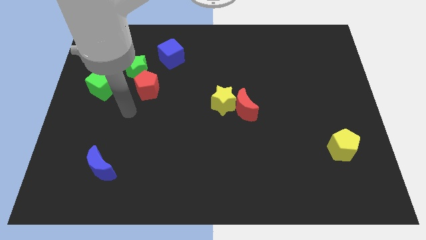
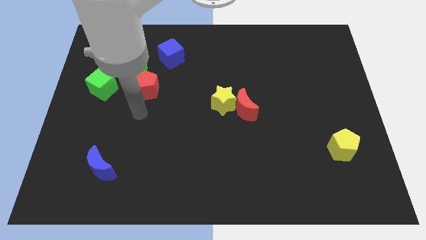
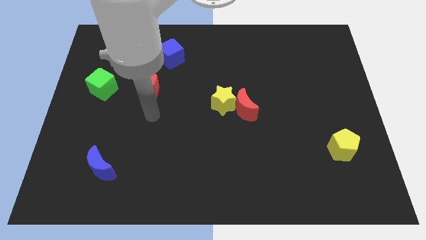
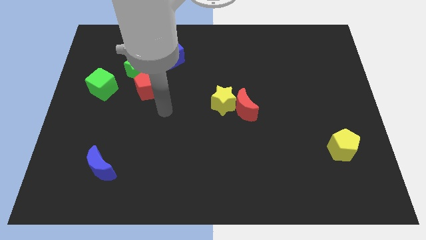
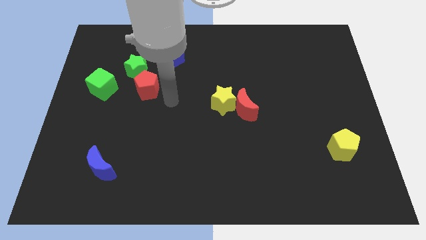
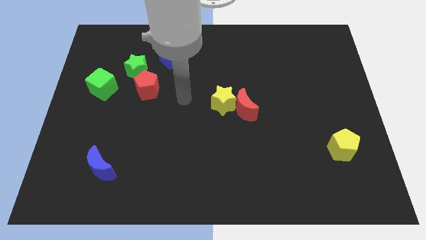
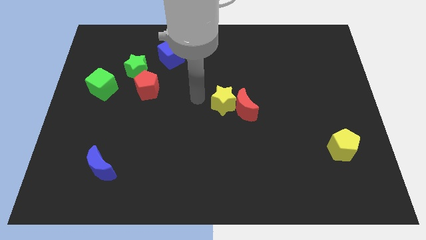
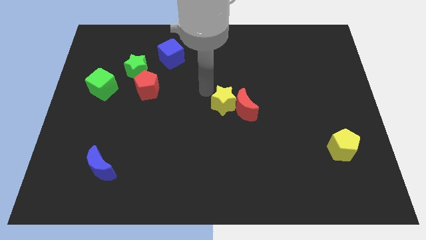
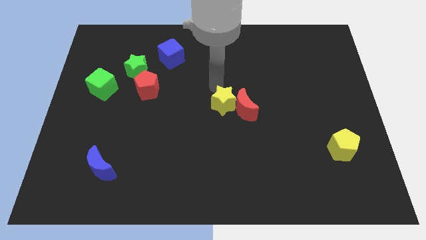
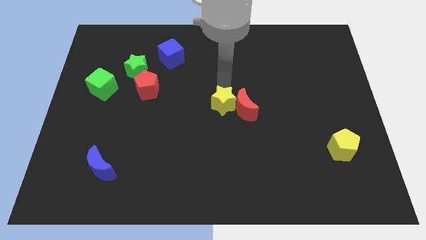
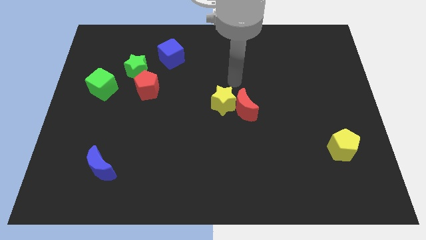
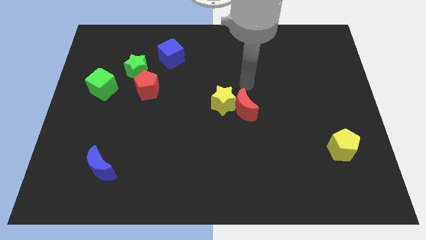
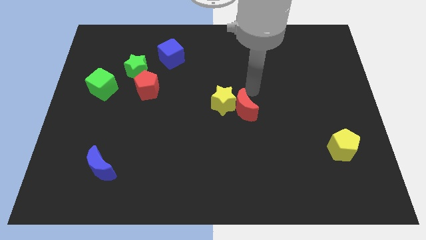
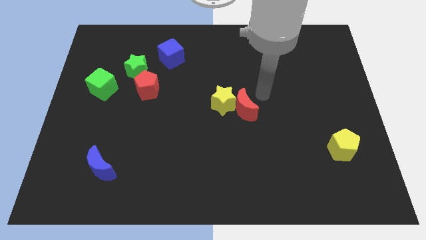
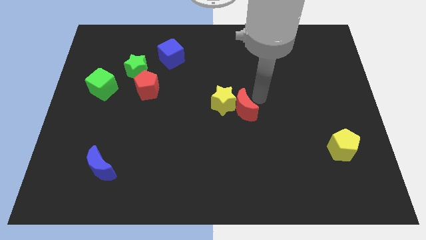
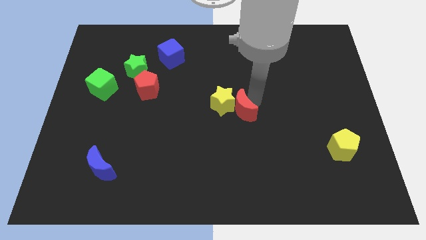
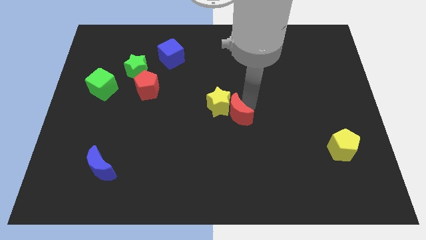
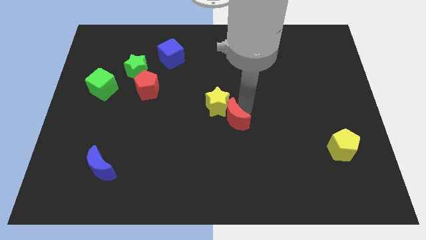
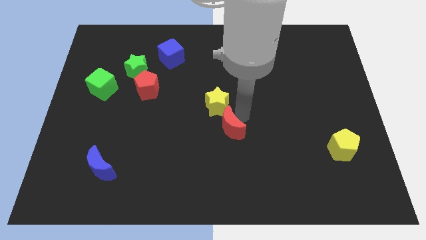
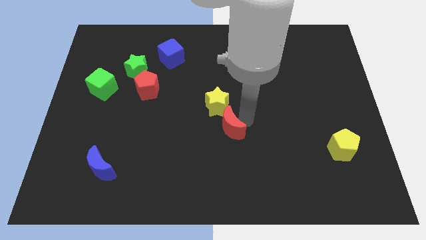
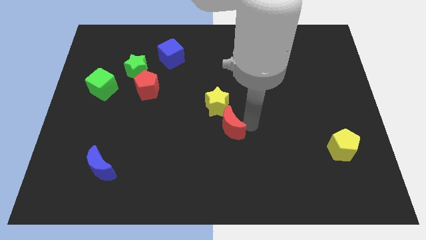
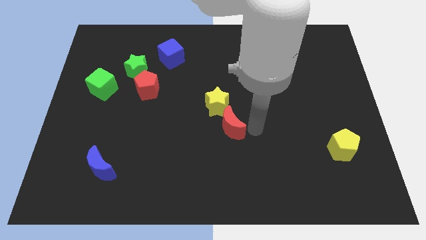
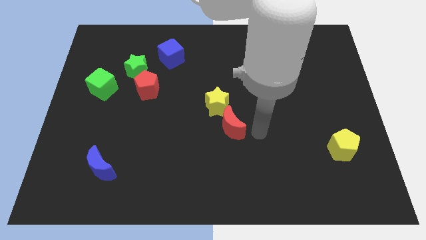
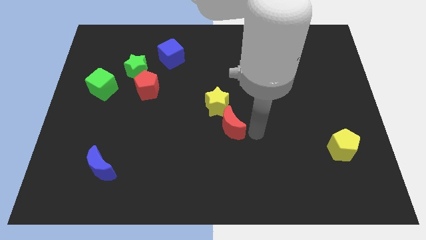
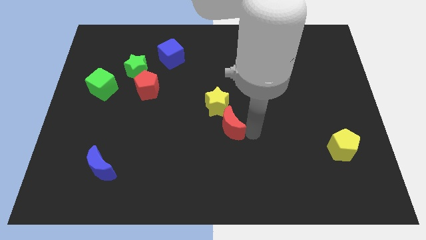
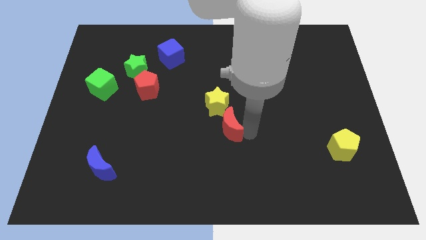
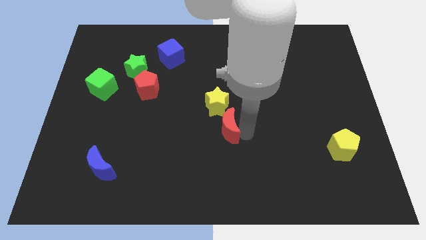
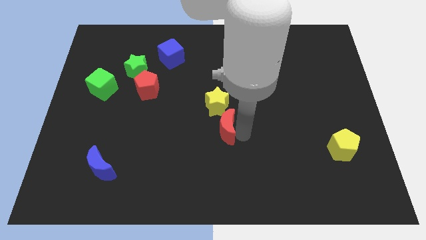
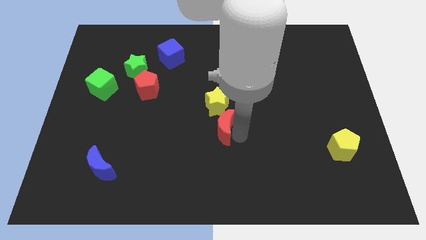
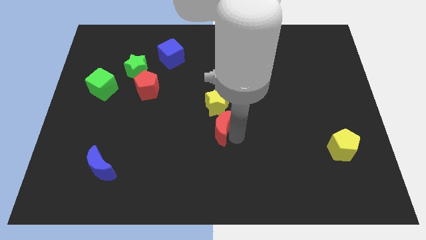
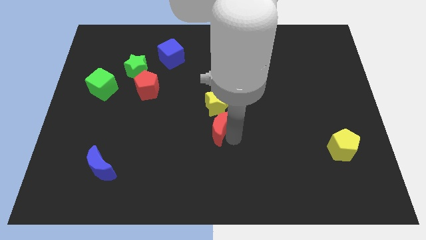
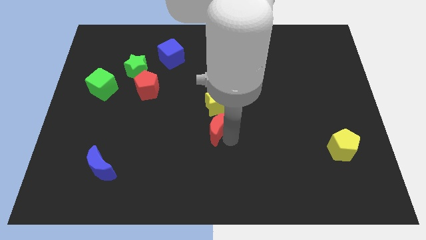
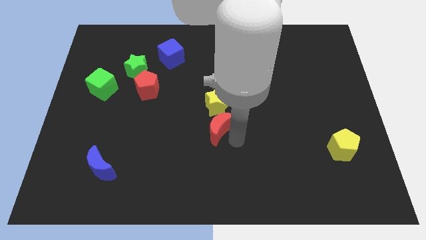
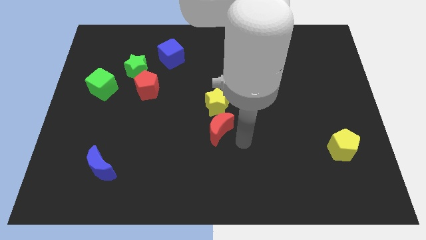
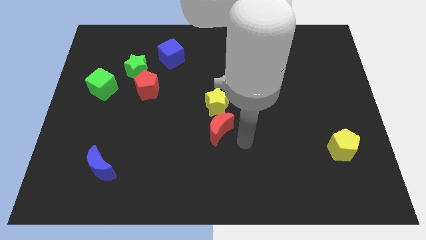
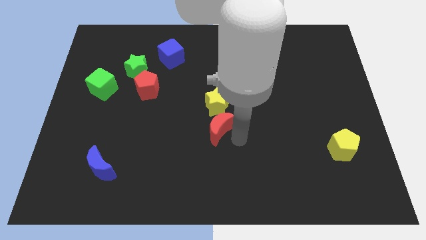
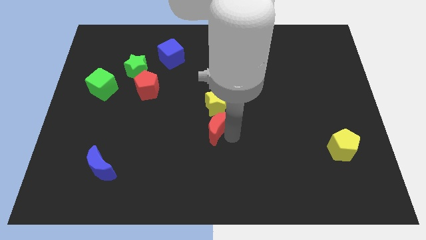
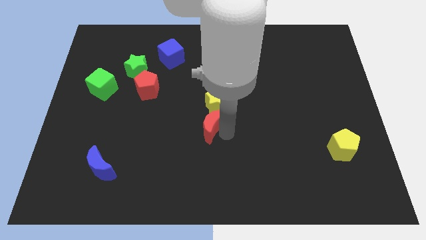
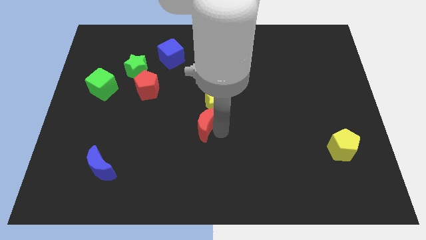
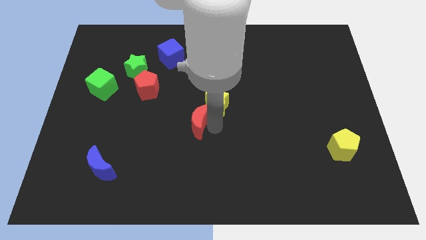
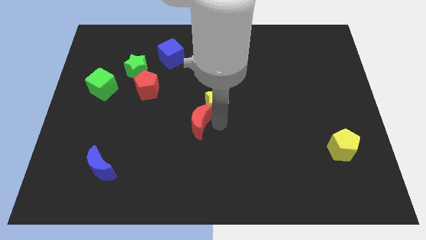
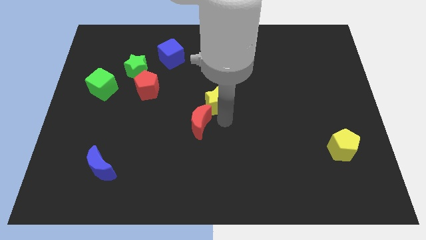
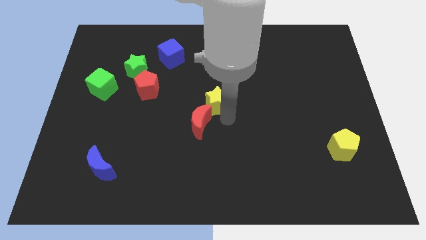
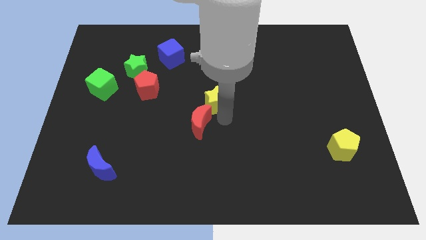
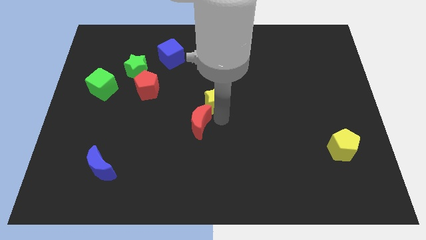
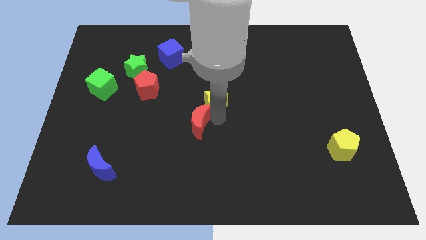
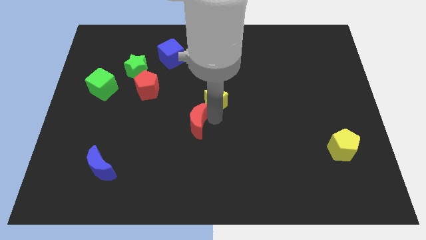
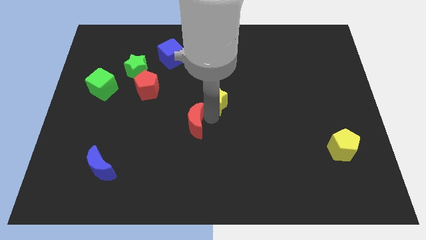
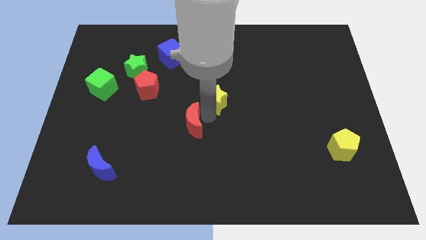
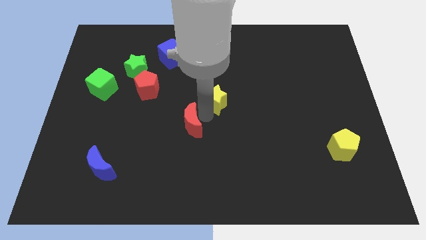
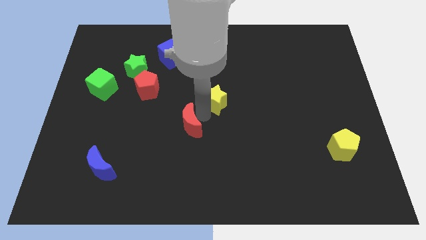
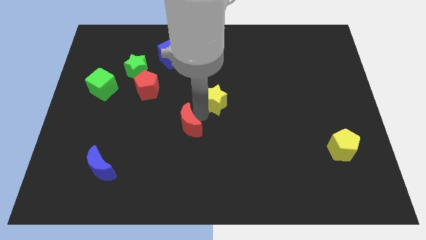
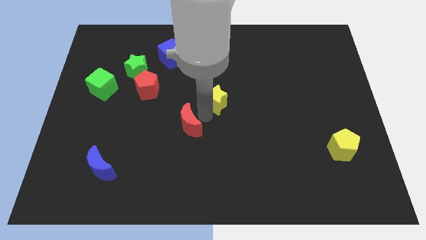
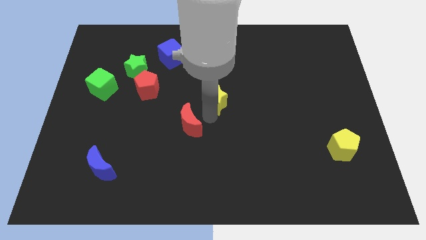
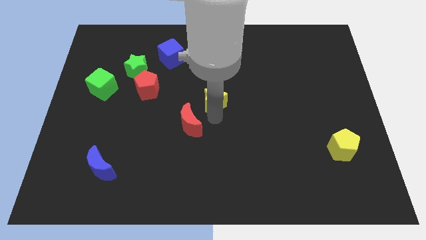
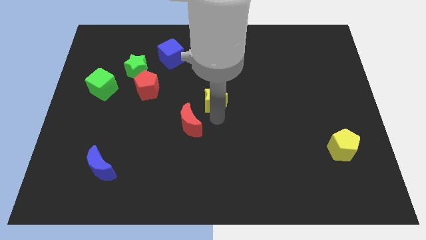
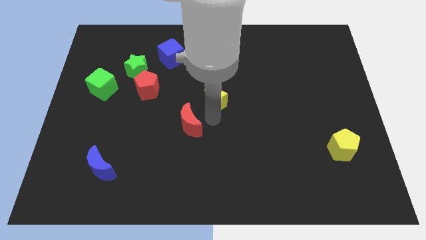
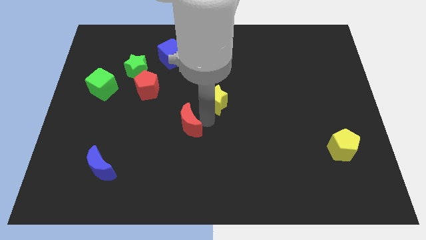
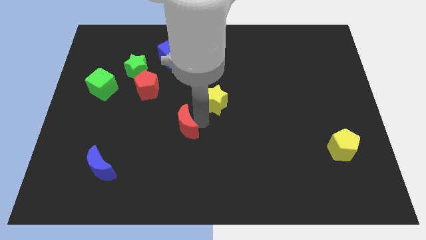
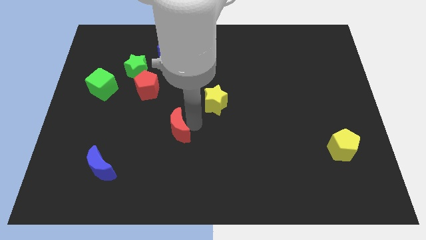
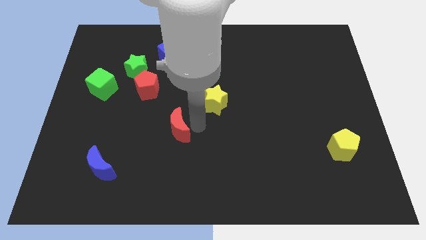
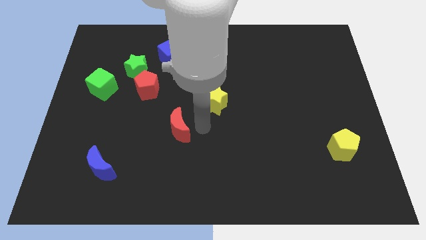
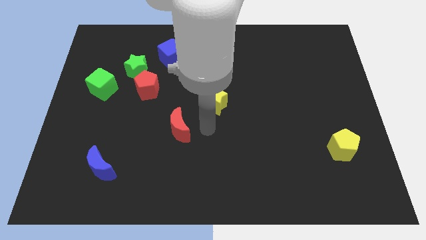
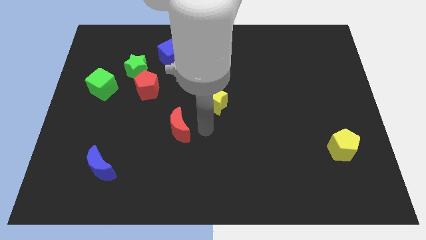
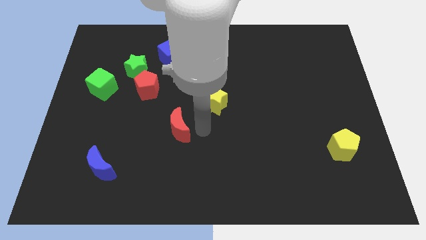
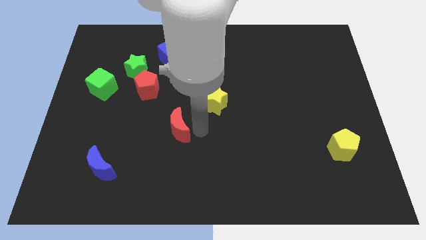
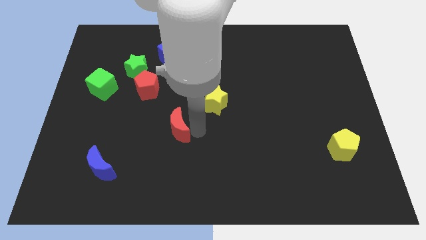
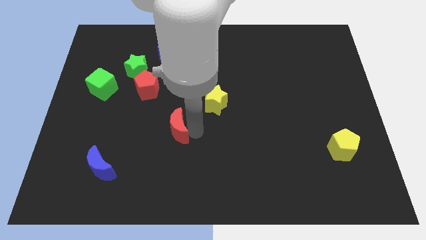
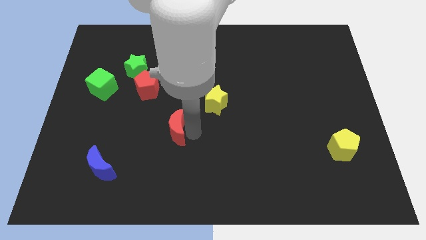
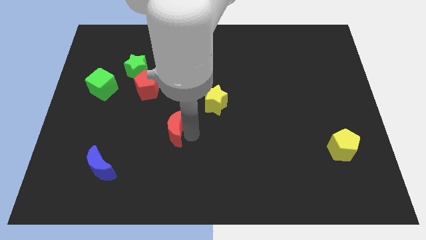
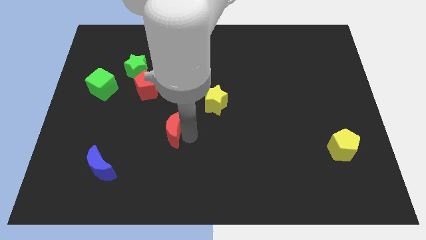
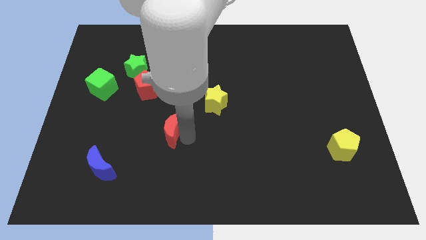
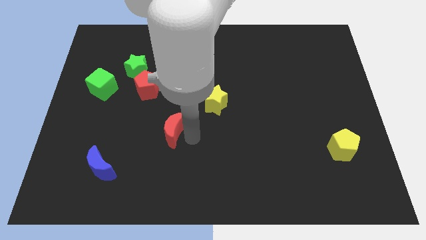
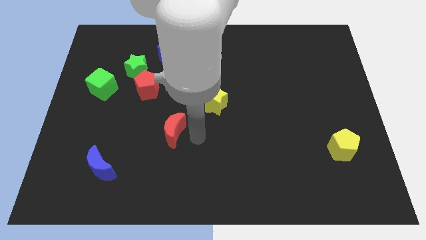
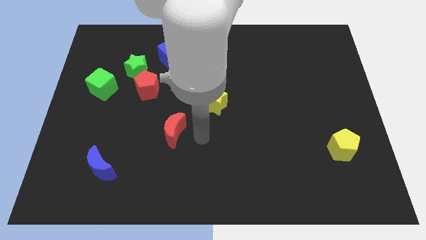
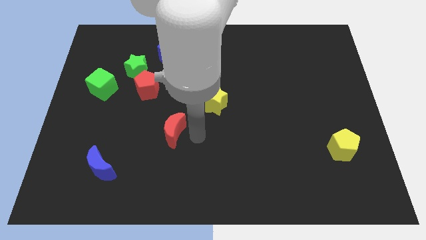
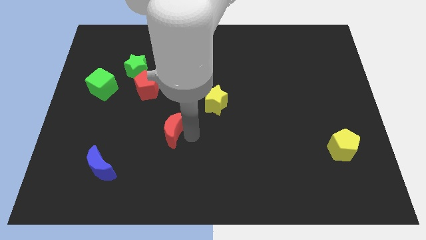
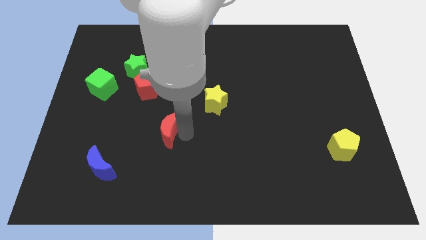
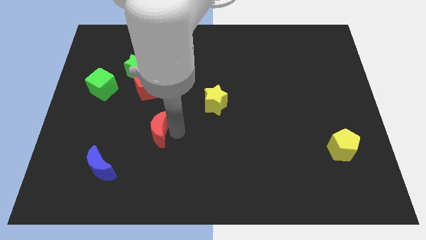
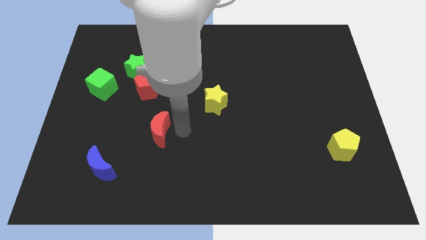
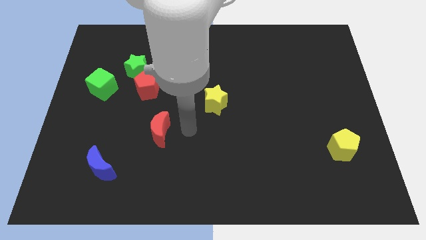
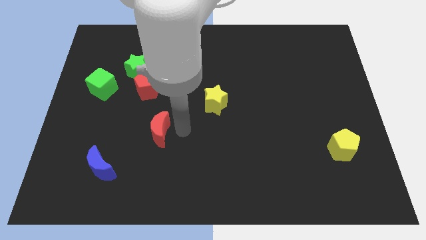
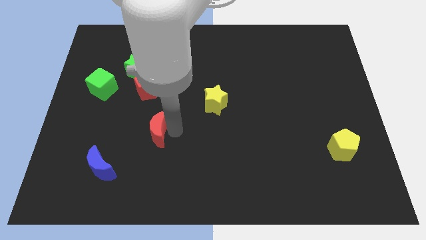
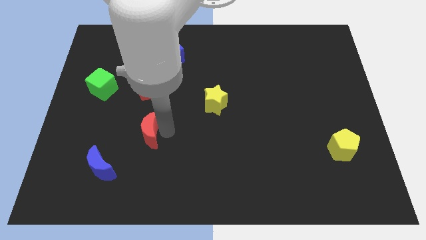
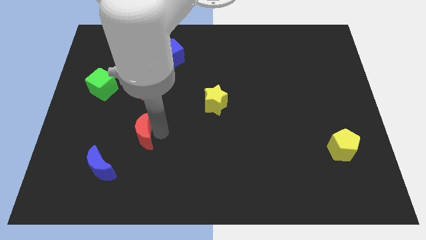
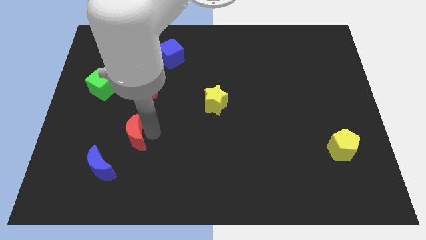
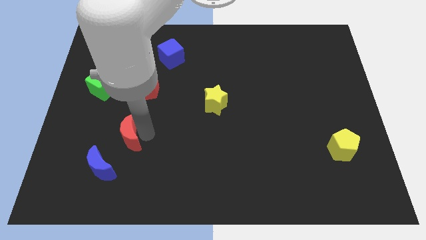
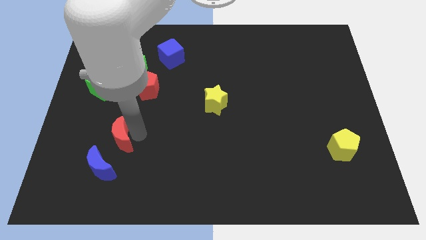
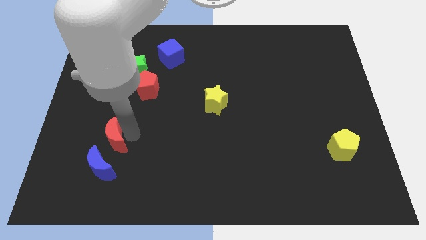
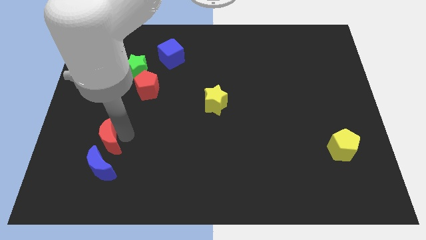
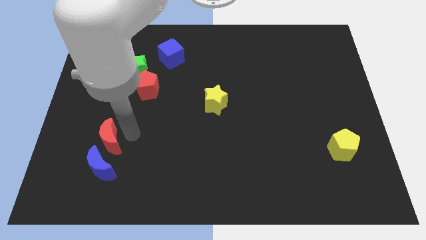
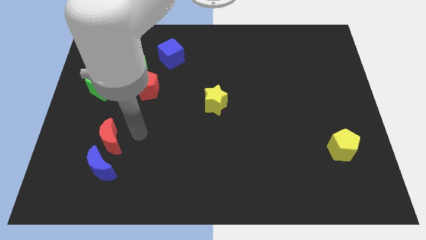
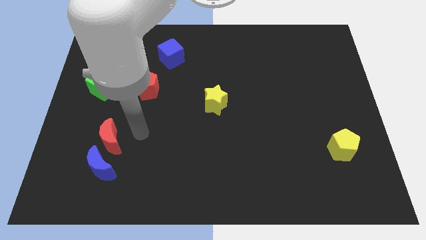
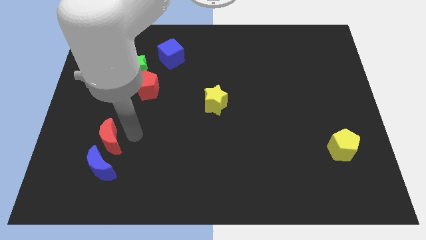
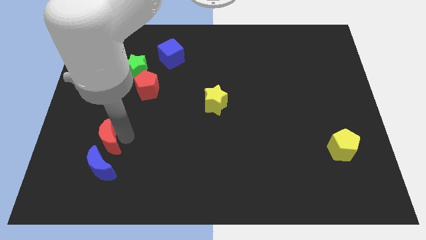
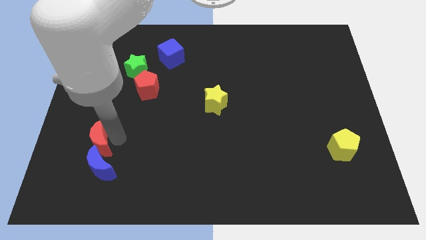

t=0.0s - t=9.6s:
push the red moon diagonally up and to the left of the blue moon
